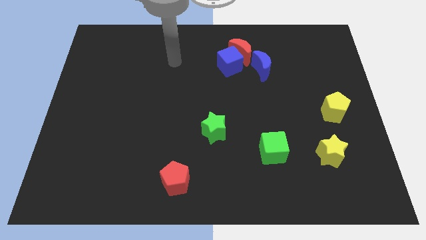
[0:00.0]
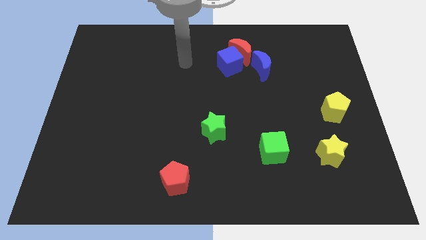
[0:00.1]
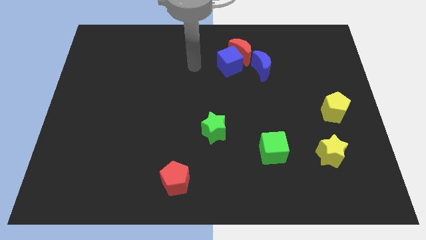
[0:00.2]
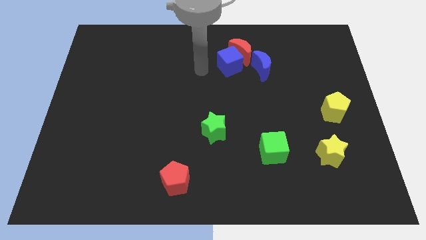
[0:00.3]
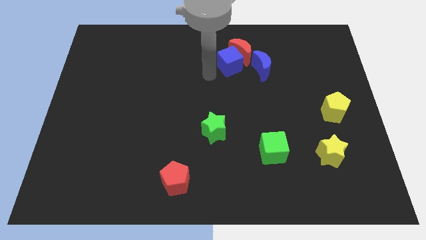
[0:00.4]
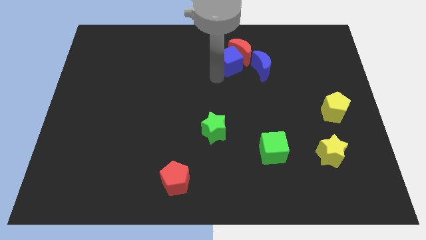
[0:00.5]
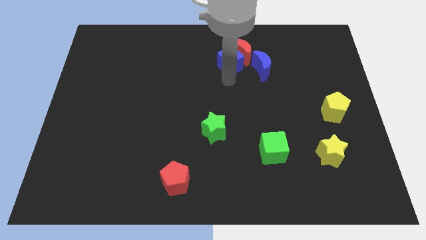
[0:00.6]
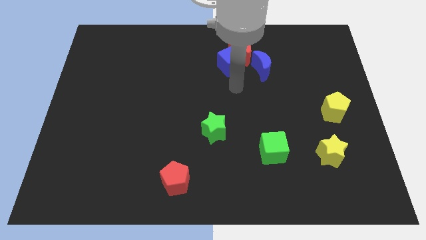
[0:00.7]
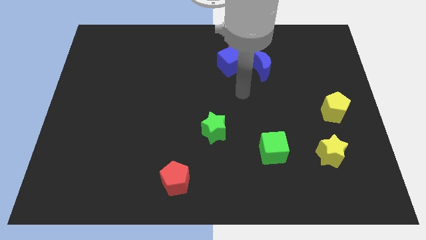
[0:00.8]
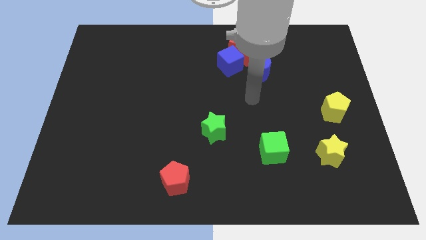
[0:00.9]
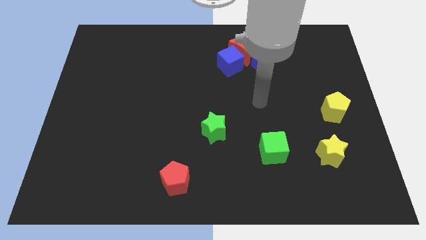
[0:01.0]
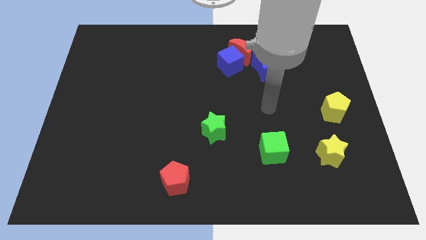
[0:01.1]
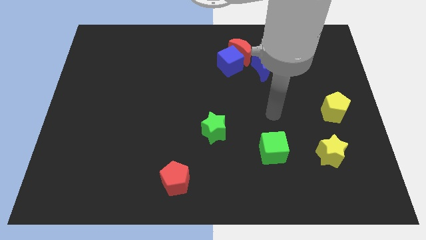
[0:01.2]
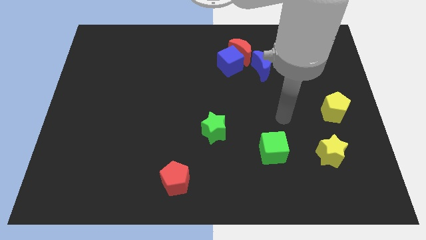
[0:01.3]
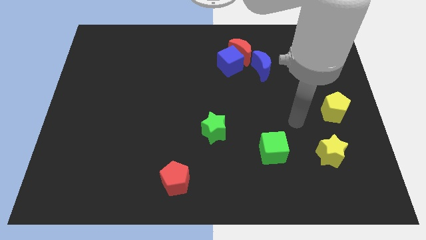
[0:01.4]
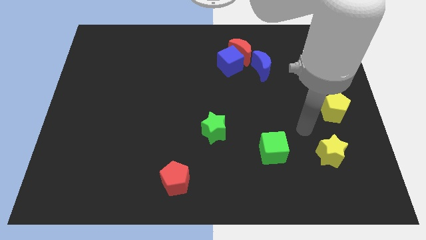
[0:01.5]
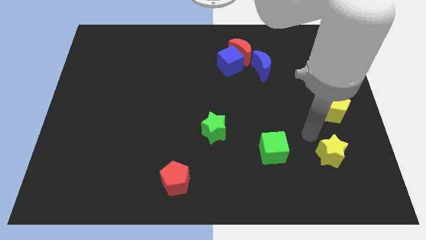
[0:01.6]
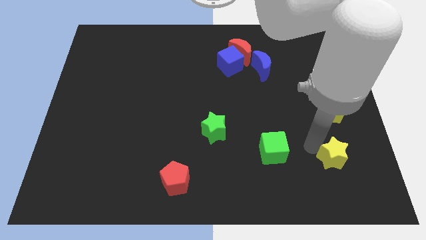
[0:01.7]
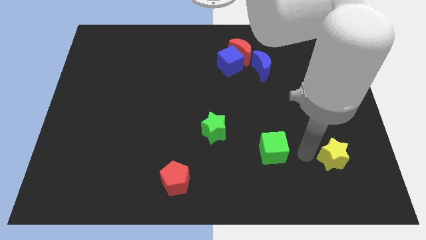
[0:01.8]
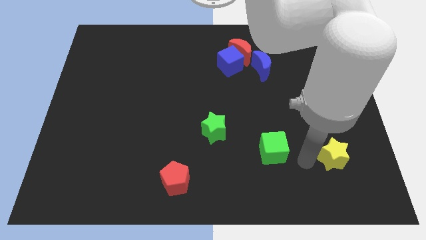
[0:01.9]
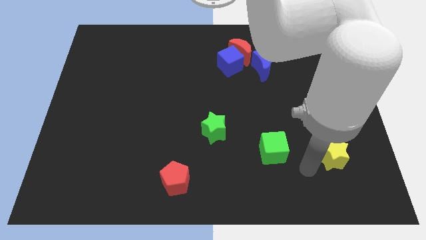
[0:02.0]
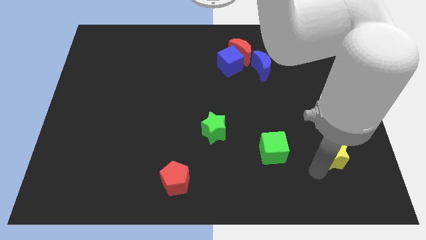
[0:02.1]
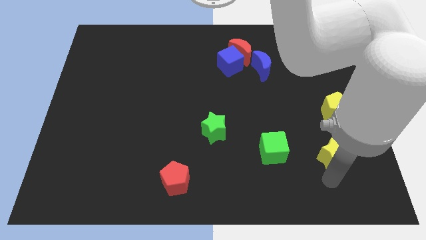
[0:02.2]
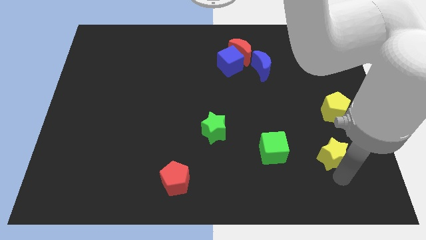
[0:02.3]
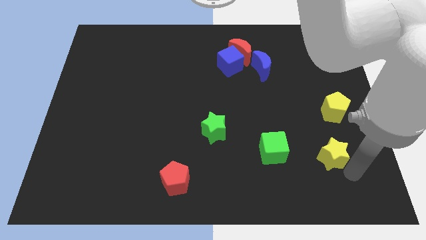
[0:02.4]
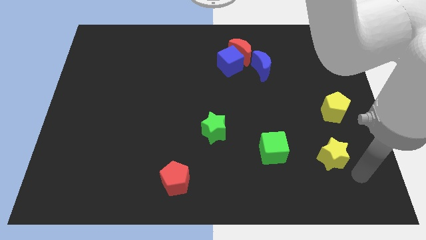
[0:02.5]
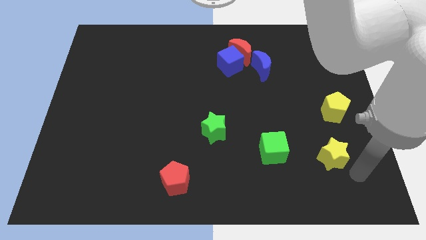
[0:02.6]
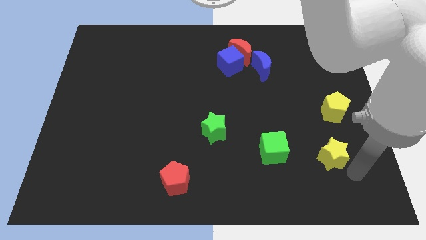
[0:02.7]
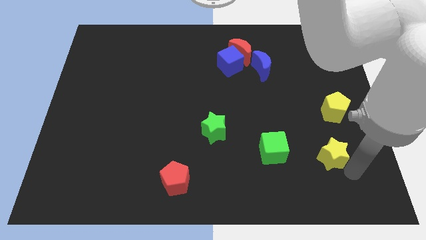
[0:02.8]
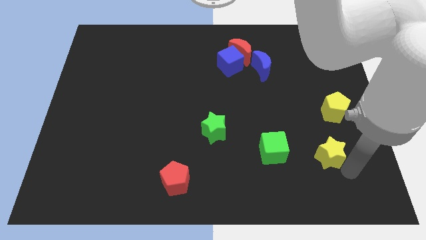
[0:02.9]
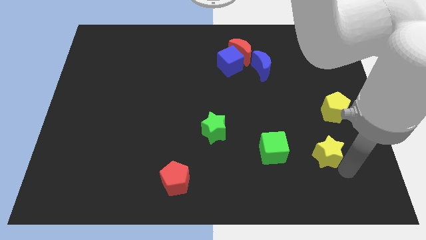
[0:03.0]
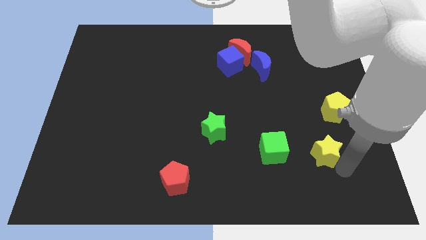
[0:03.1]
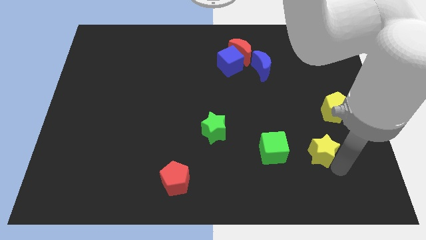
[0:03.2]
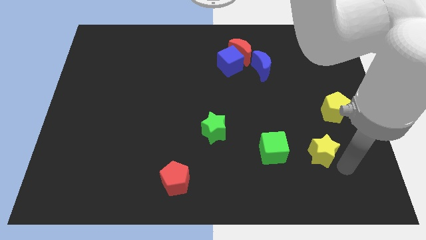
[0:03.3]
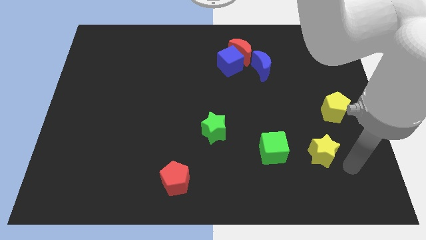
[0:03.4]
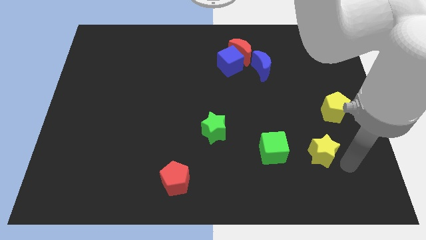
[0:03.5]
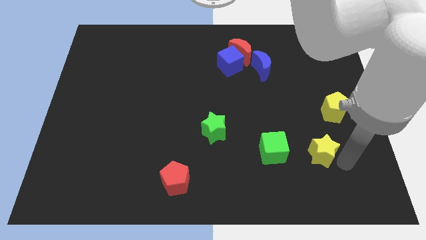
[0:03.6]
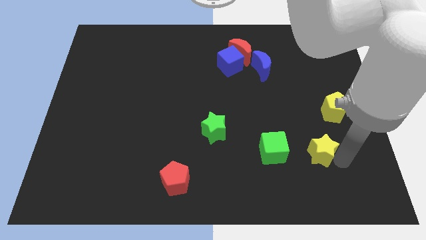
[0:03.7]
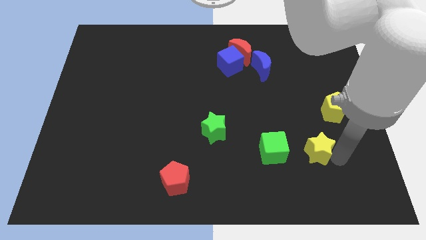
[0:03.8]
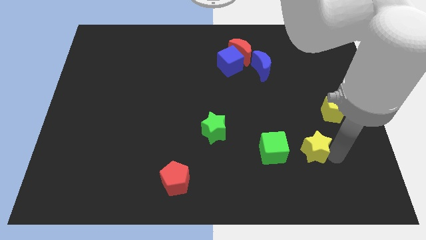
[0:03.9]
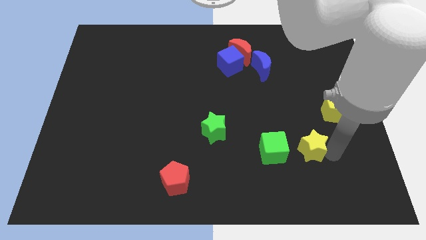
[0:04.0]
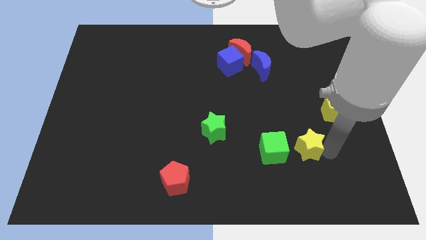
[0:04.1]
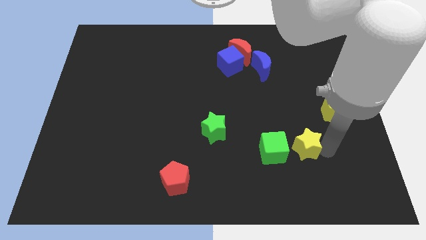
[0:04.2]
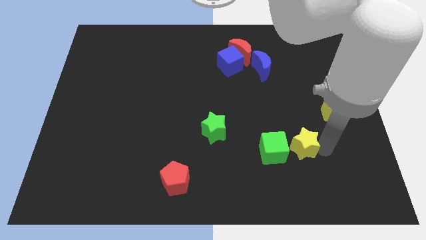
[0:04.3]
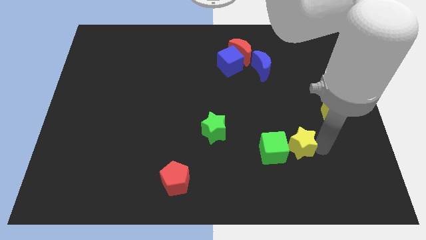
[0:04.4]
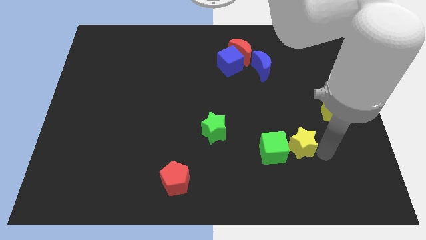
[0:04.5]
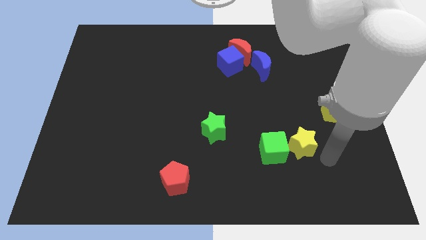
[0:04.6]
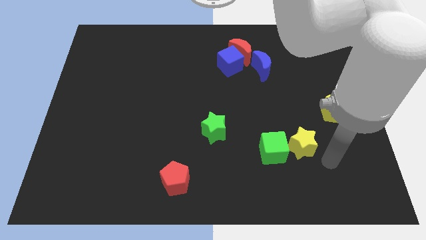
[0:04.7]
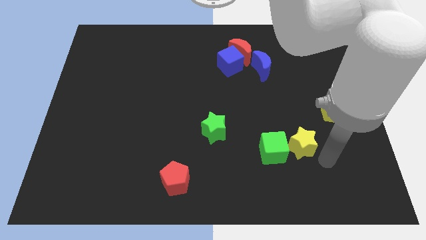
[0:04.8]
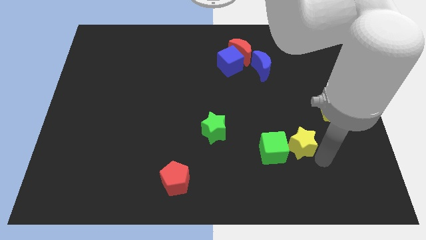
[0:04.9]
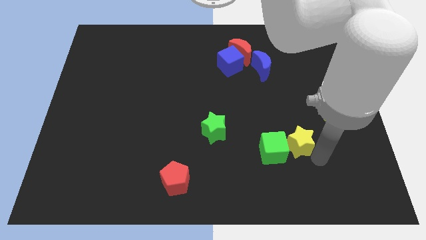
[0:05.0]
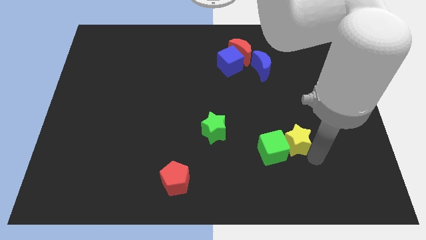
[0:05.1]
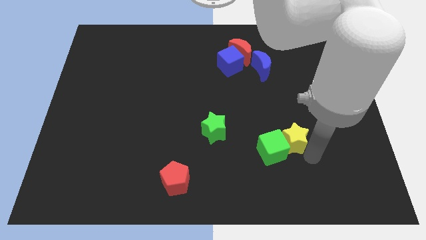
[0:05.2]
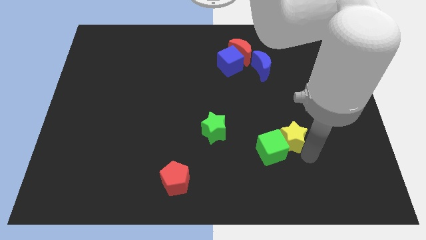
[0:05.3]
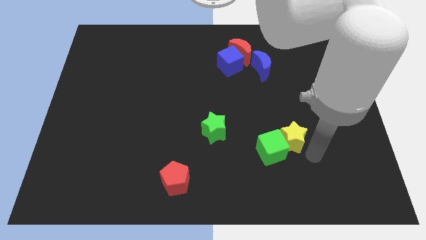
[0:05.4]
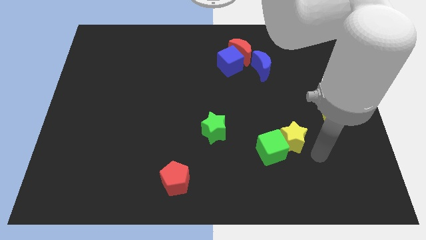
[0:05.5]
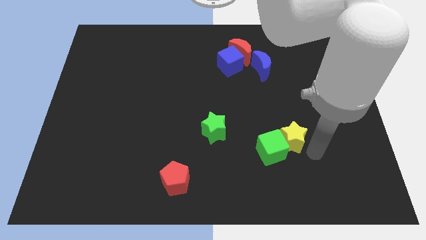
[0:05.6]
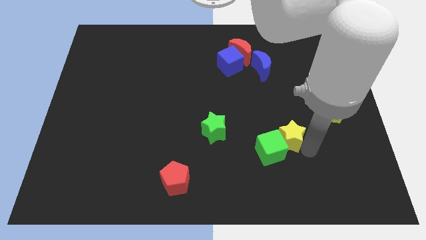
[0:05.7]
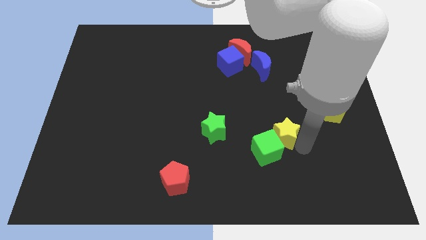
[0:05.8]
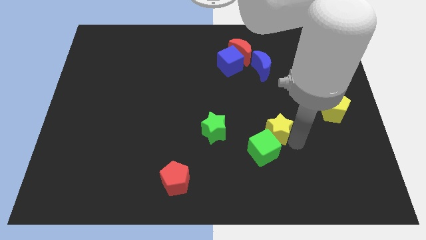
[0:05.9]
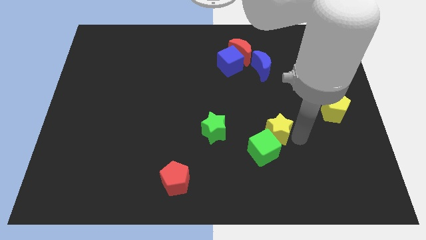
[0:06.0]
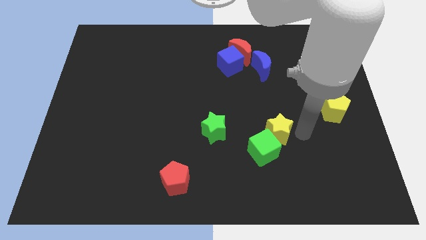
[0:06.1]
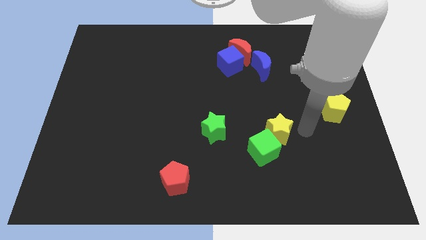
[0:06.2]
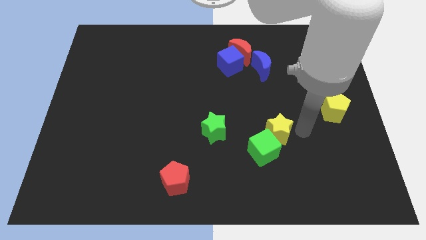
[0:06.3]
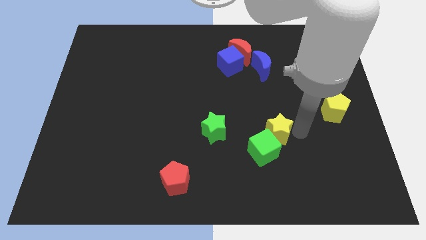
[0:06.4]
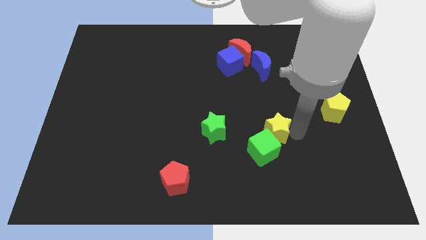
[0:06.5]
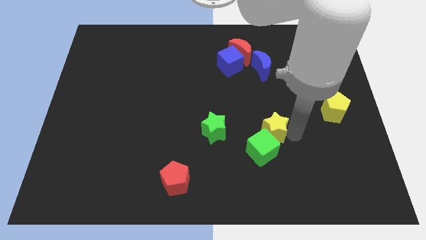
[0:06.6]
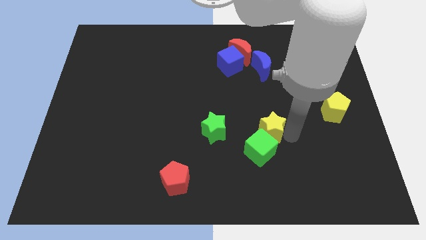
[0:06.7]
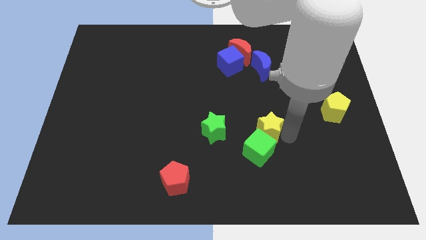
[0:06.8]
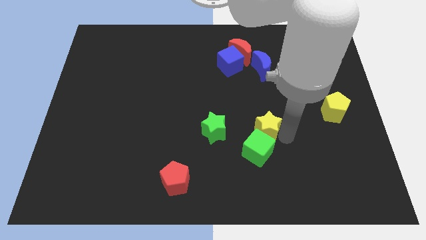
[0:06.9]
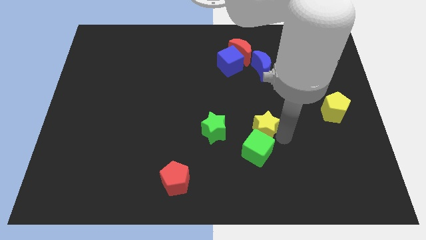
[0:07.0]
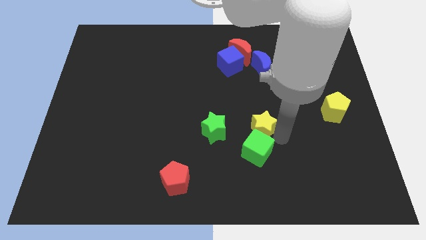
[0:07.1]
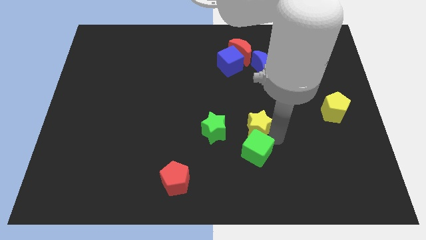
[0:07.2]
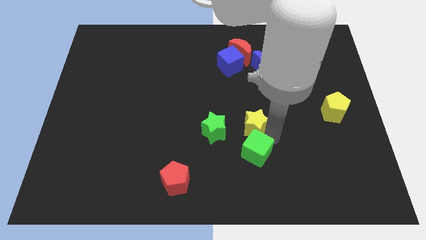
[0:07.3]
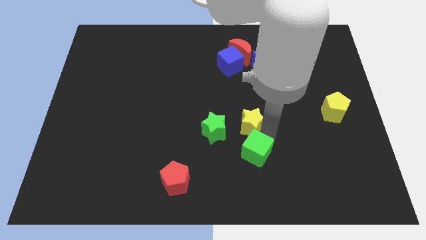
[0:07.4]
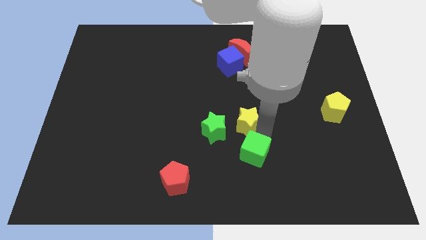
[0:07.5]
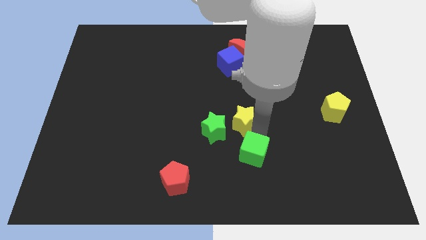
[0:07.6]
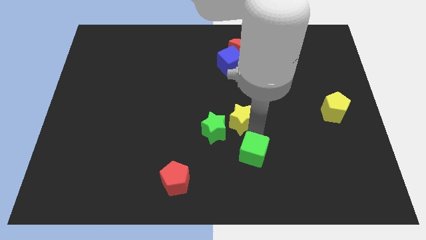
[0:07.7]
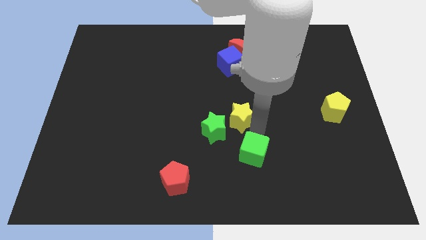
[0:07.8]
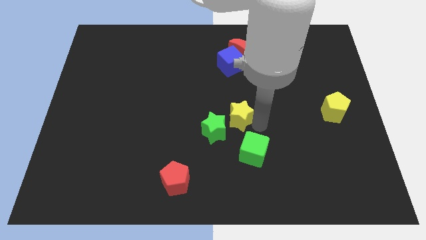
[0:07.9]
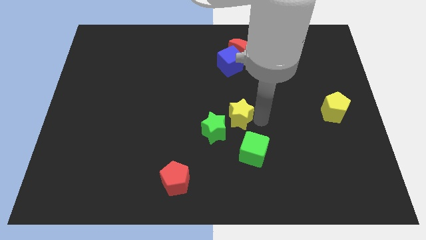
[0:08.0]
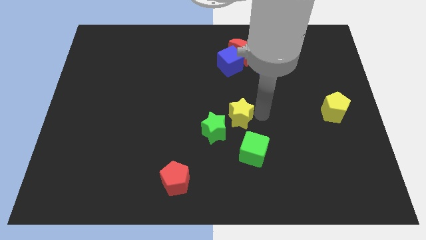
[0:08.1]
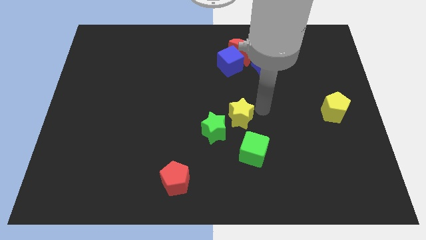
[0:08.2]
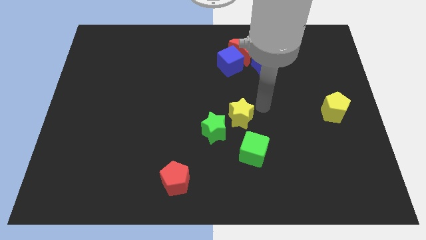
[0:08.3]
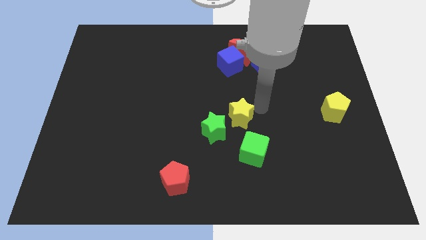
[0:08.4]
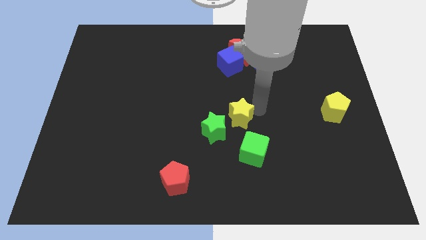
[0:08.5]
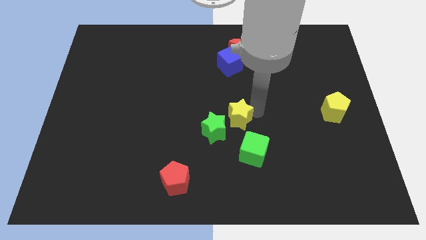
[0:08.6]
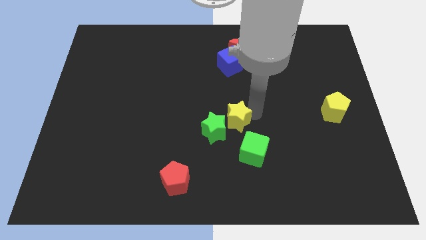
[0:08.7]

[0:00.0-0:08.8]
slide the yellow star next to the green star
